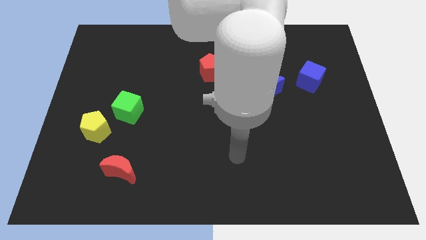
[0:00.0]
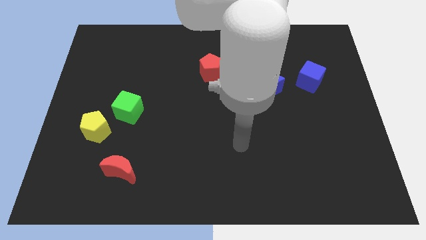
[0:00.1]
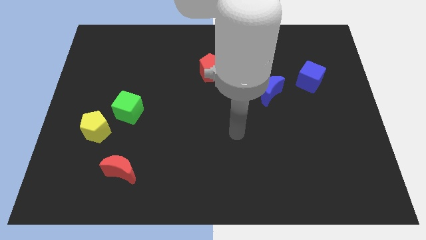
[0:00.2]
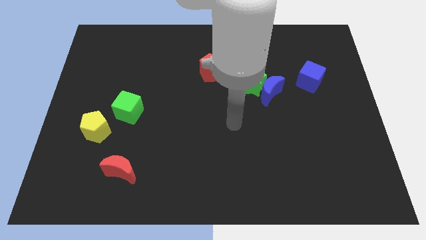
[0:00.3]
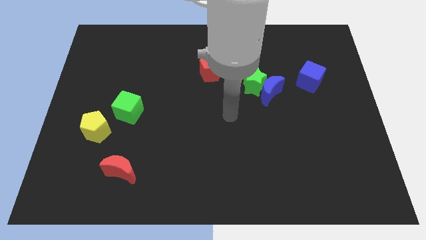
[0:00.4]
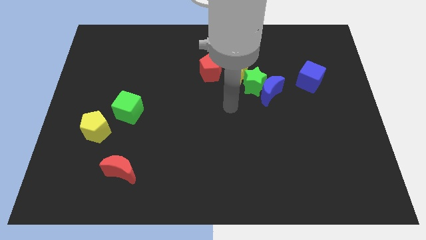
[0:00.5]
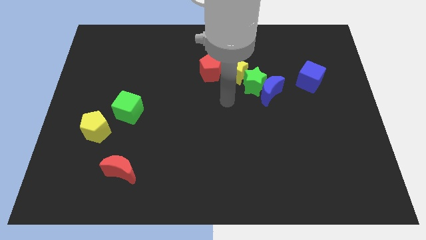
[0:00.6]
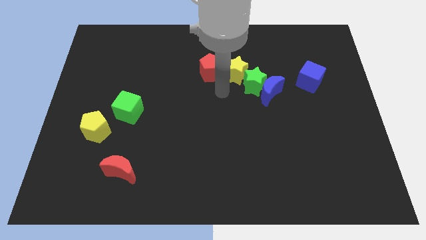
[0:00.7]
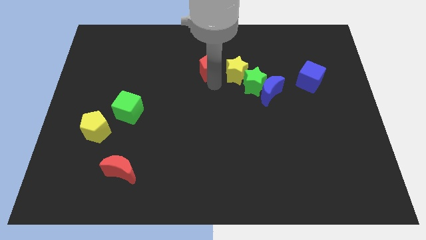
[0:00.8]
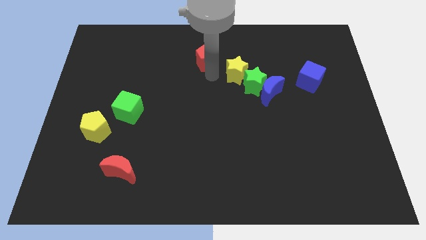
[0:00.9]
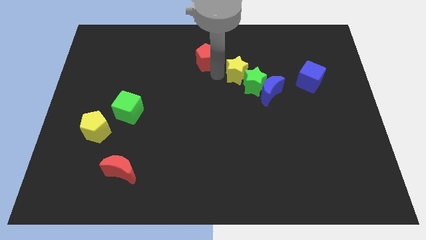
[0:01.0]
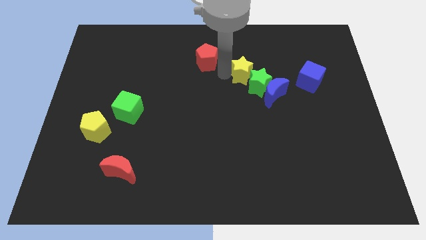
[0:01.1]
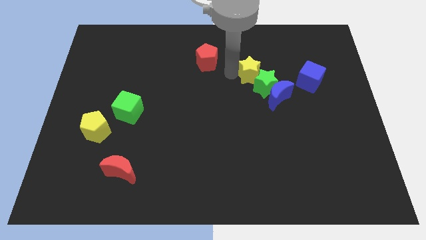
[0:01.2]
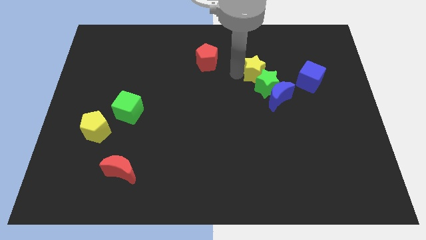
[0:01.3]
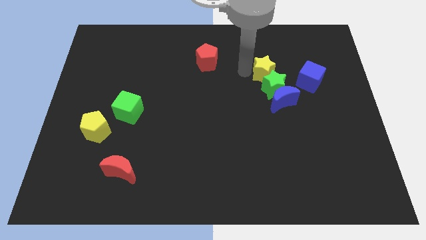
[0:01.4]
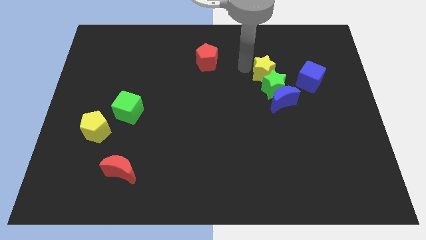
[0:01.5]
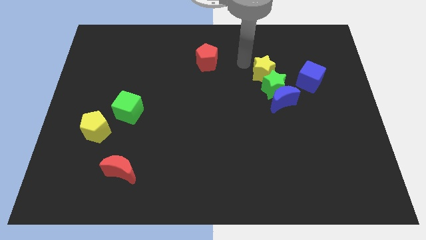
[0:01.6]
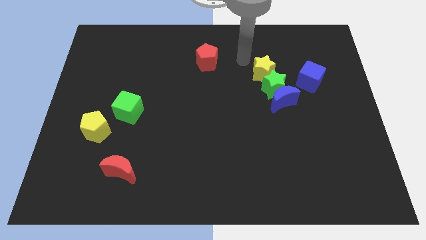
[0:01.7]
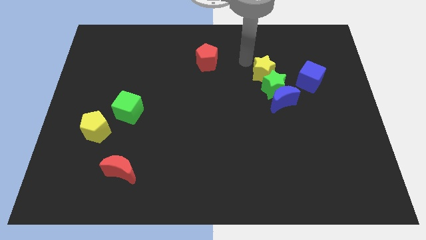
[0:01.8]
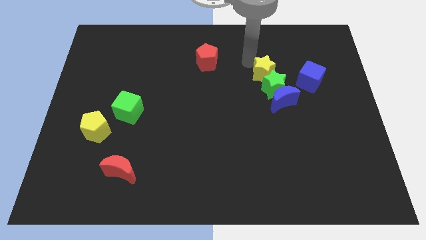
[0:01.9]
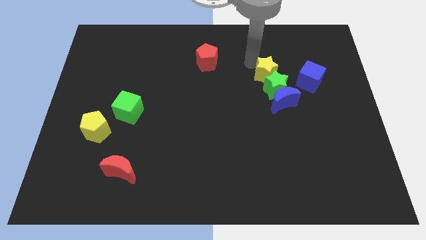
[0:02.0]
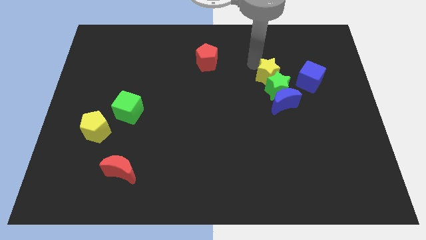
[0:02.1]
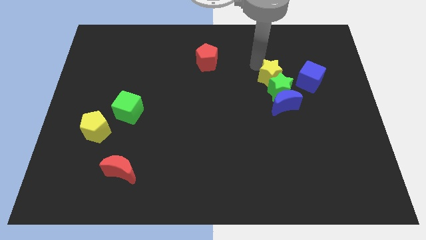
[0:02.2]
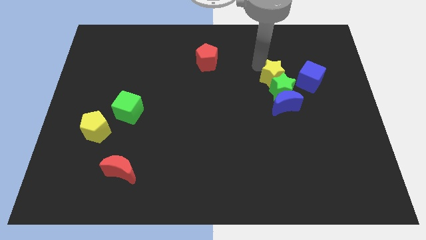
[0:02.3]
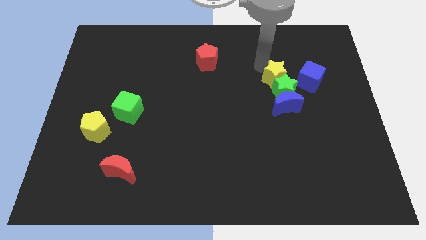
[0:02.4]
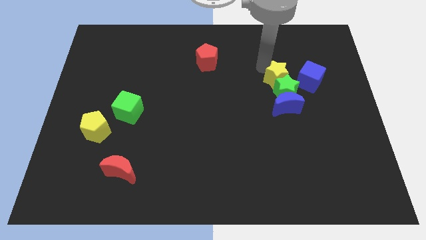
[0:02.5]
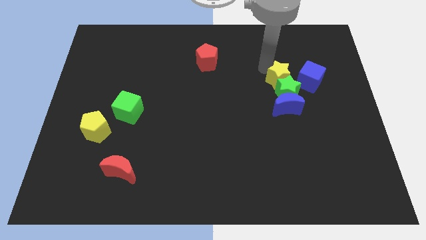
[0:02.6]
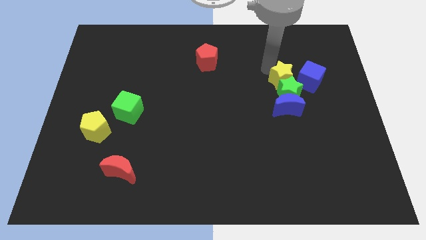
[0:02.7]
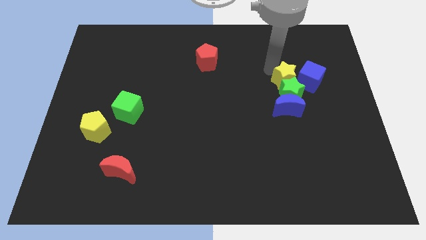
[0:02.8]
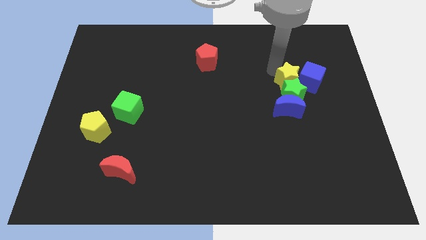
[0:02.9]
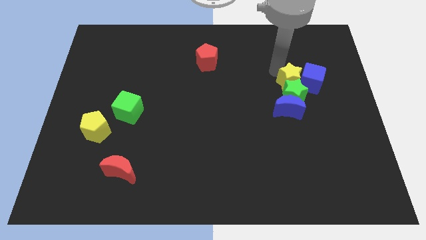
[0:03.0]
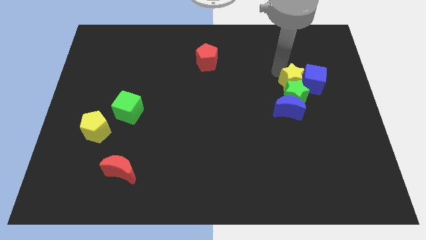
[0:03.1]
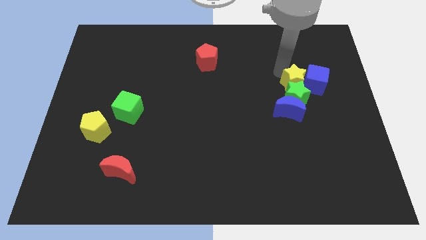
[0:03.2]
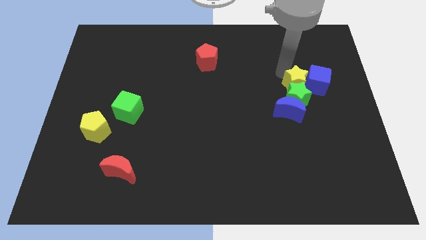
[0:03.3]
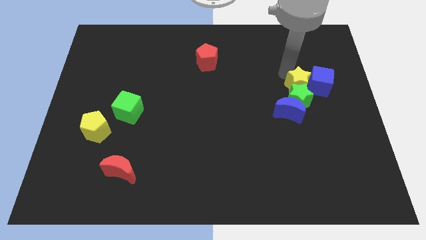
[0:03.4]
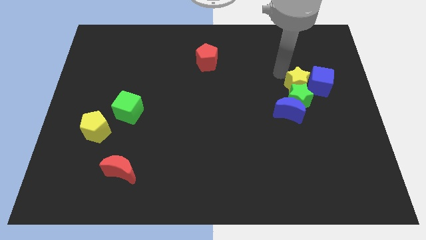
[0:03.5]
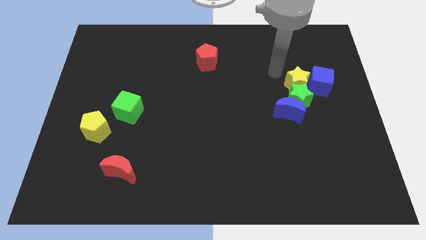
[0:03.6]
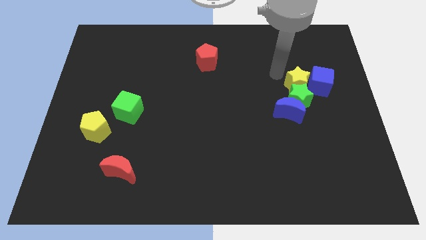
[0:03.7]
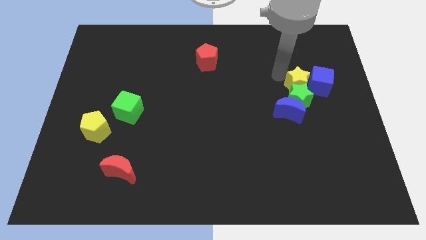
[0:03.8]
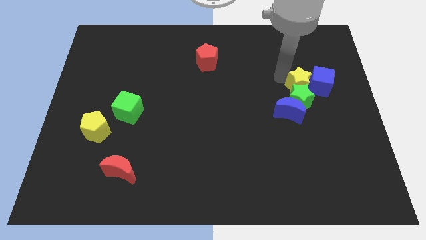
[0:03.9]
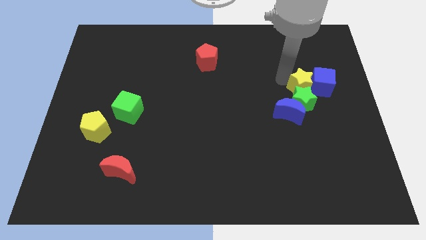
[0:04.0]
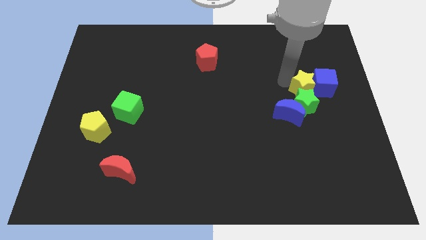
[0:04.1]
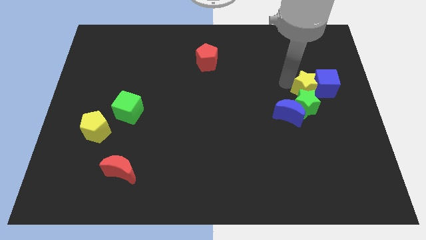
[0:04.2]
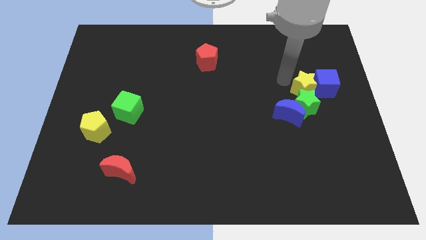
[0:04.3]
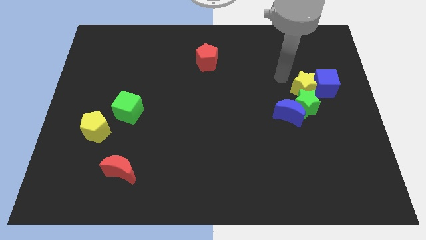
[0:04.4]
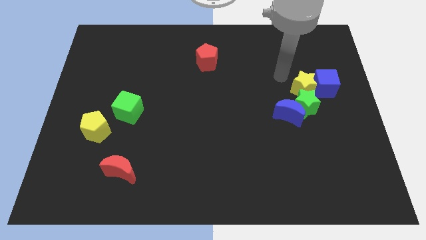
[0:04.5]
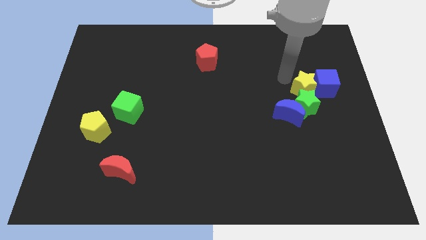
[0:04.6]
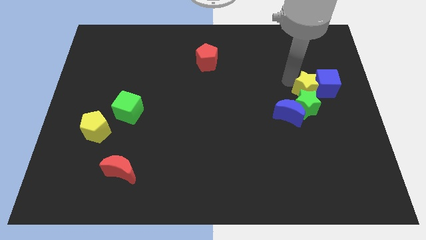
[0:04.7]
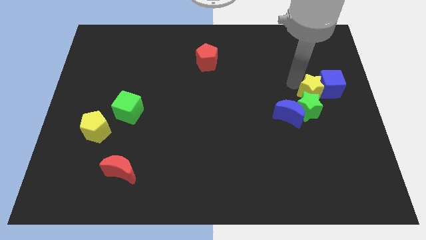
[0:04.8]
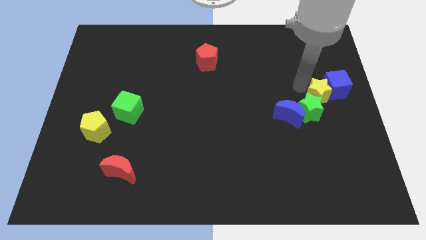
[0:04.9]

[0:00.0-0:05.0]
push the yellow star to the center right

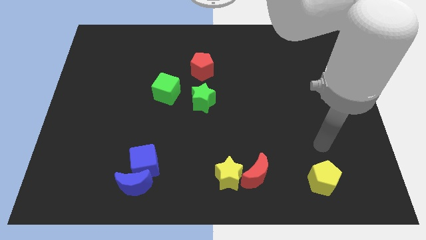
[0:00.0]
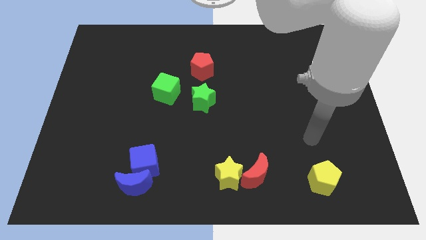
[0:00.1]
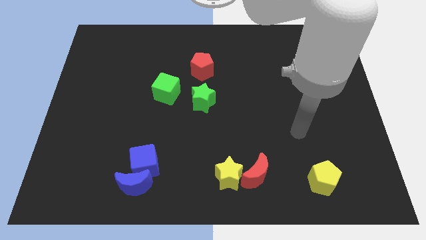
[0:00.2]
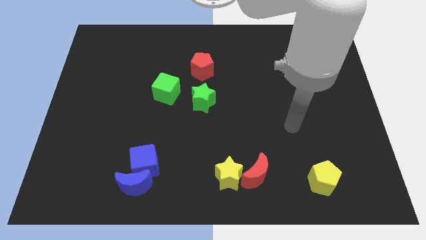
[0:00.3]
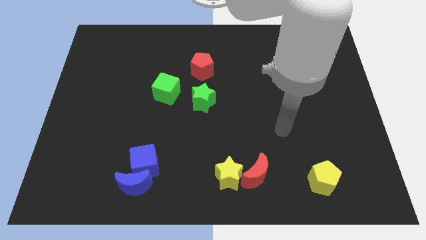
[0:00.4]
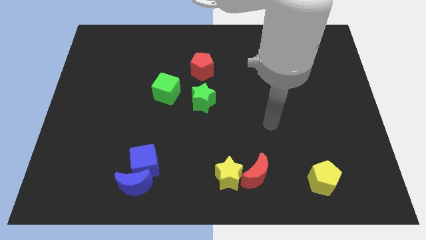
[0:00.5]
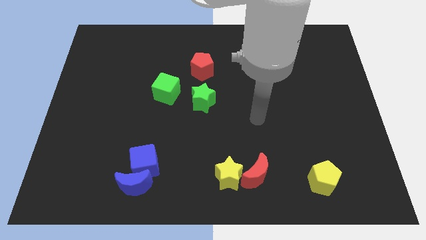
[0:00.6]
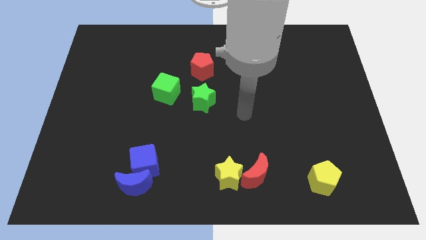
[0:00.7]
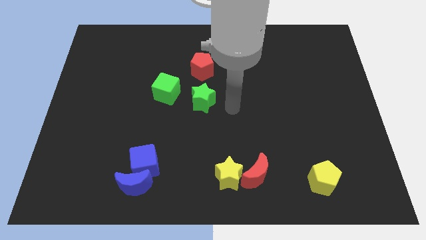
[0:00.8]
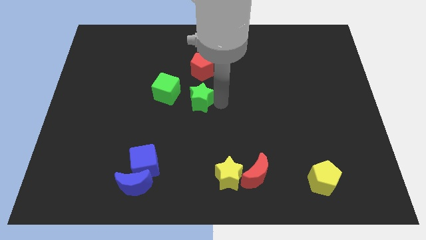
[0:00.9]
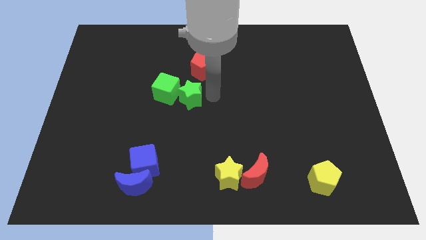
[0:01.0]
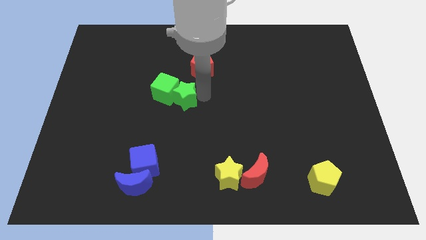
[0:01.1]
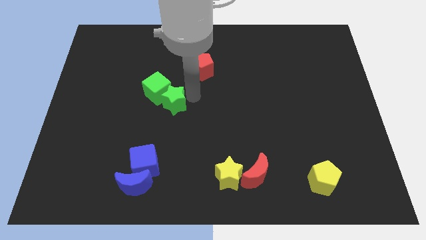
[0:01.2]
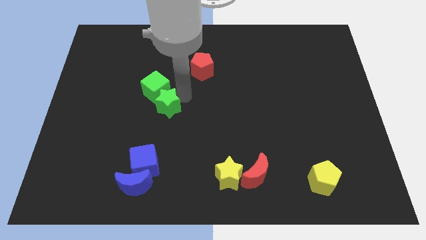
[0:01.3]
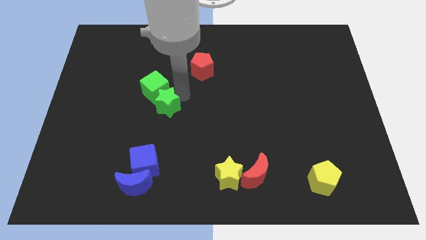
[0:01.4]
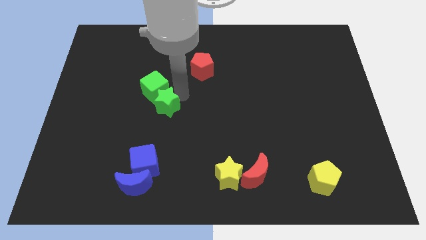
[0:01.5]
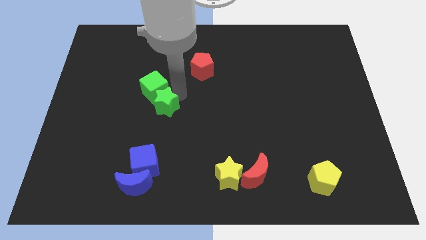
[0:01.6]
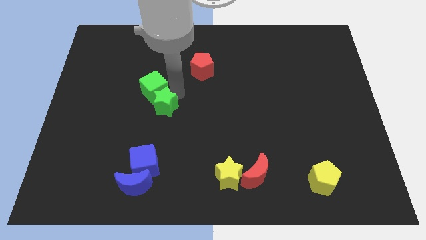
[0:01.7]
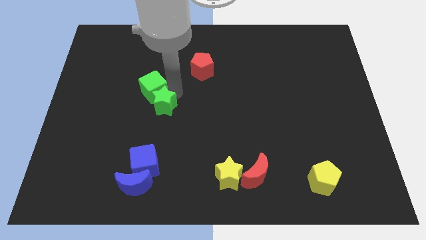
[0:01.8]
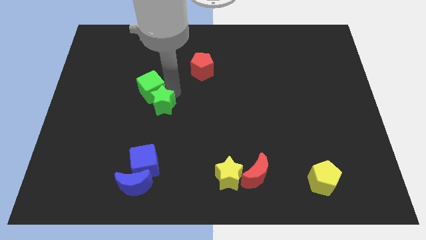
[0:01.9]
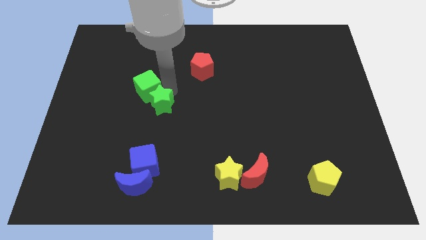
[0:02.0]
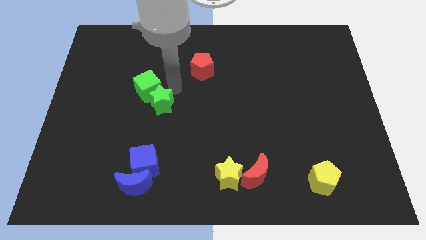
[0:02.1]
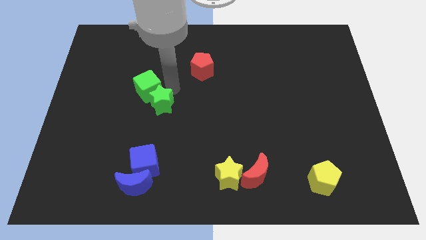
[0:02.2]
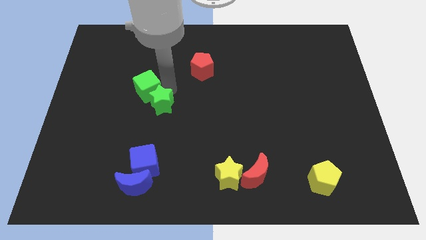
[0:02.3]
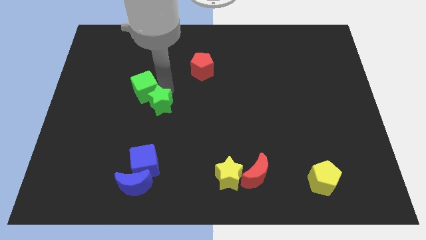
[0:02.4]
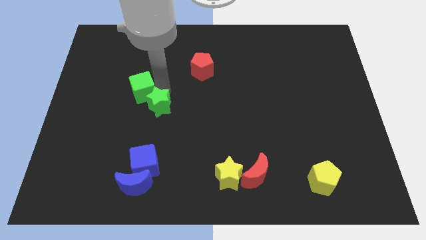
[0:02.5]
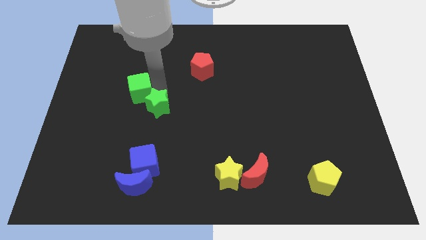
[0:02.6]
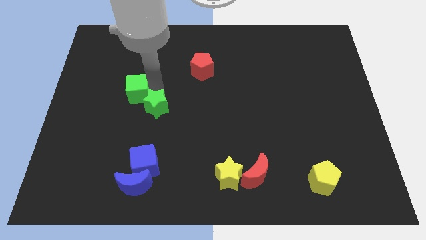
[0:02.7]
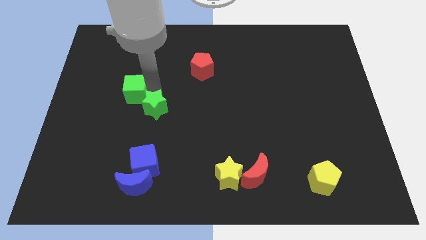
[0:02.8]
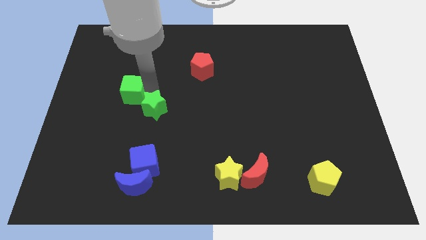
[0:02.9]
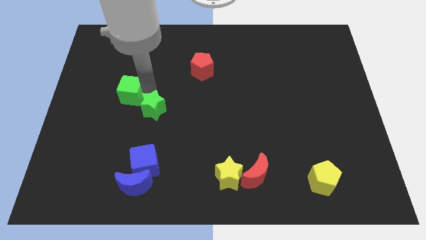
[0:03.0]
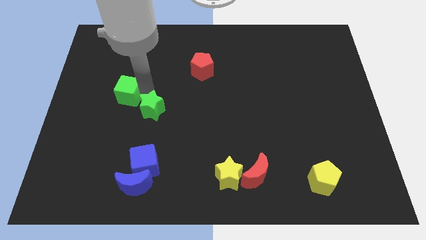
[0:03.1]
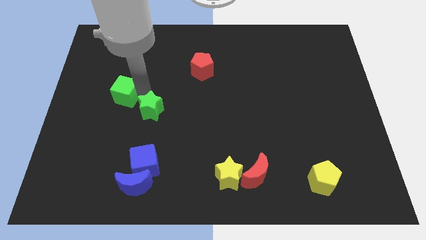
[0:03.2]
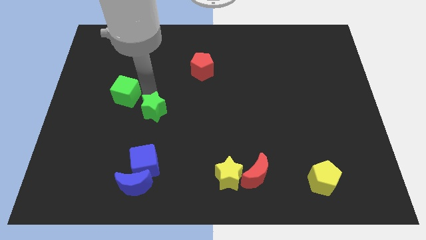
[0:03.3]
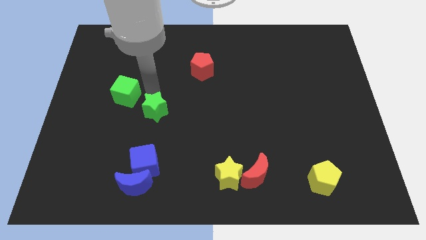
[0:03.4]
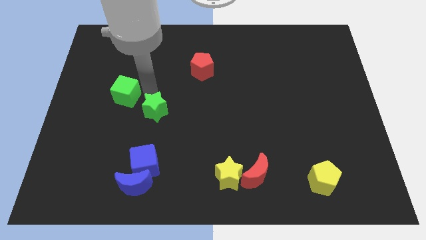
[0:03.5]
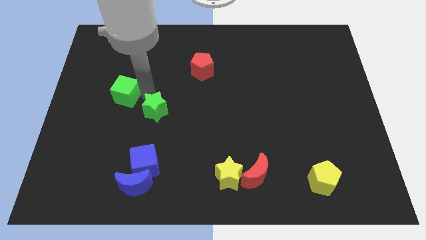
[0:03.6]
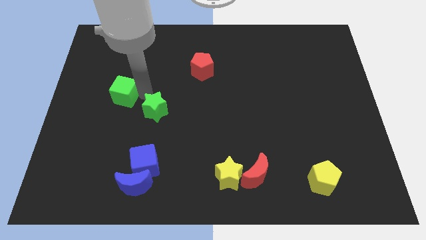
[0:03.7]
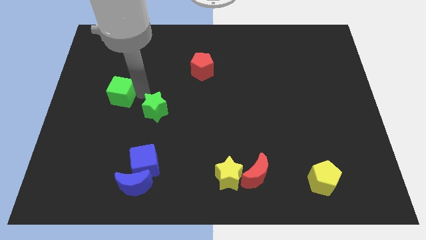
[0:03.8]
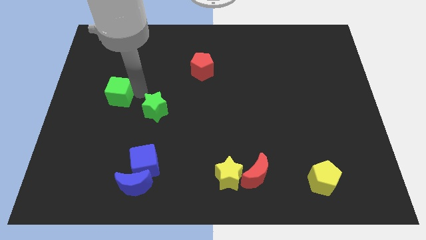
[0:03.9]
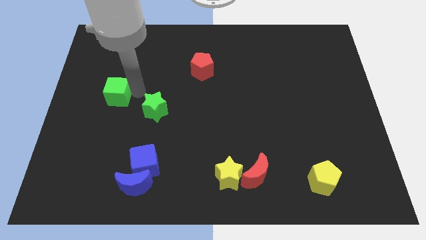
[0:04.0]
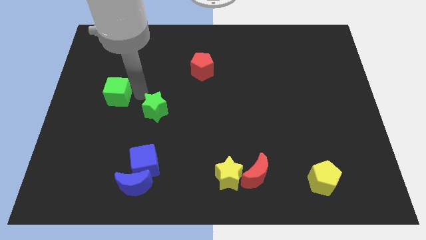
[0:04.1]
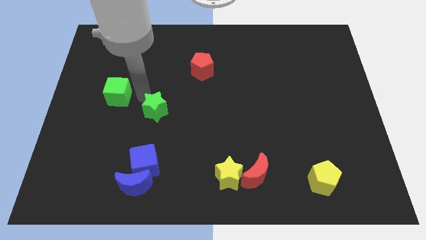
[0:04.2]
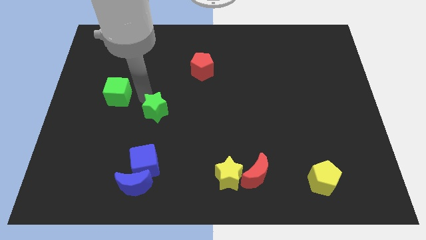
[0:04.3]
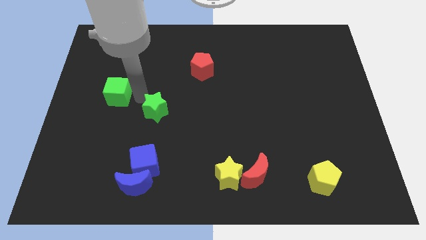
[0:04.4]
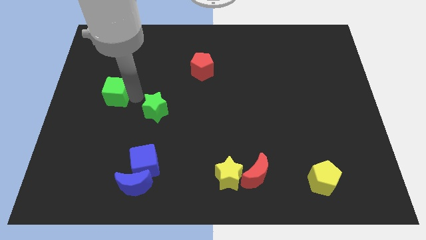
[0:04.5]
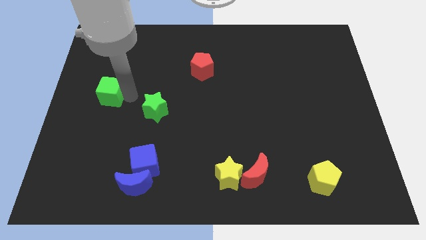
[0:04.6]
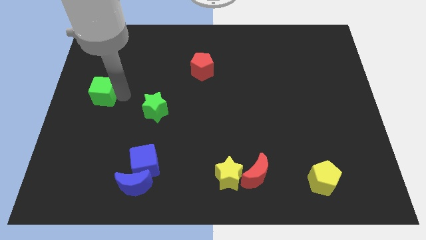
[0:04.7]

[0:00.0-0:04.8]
move the green cube to the left side
